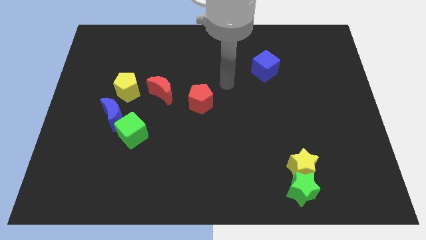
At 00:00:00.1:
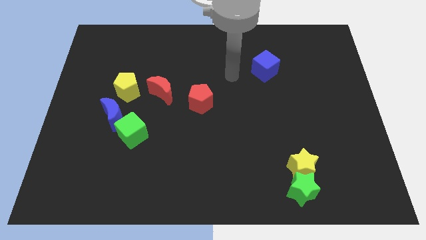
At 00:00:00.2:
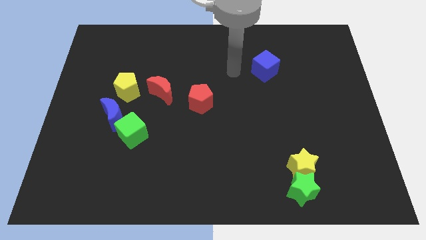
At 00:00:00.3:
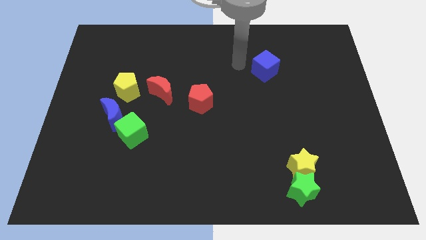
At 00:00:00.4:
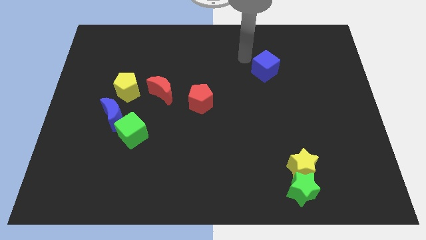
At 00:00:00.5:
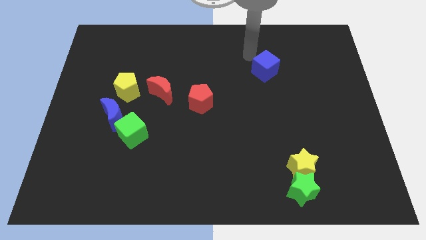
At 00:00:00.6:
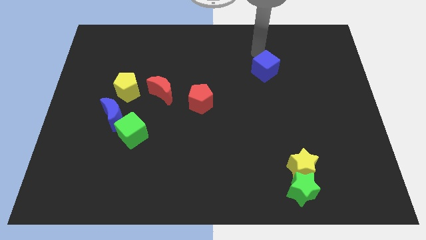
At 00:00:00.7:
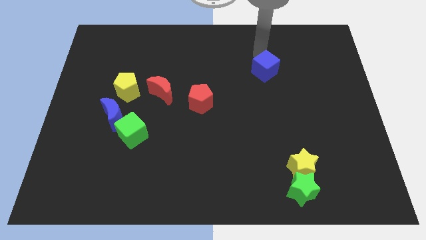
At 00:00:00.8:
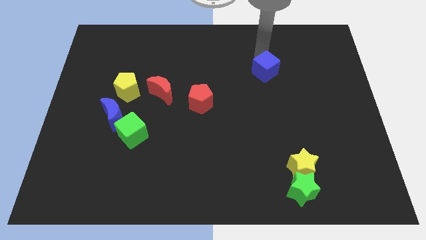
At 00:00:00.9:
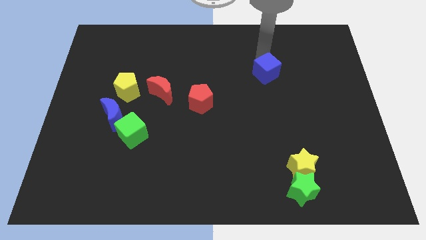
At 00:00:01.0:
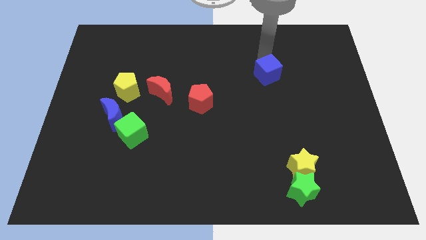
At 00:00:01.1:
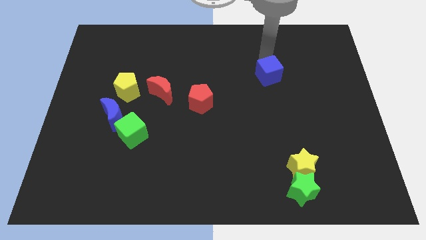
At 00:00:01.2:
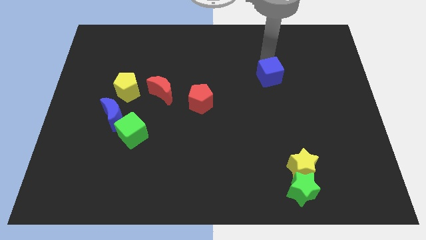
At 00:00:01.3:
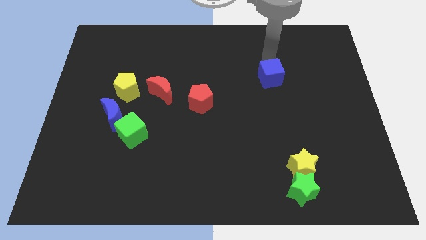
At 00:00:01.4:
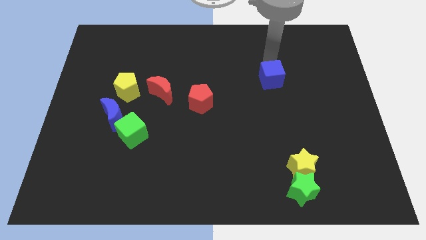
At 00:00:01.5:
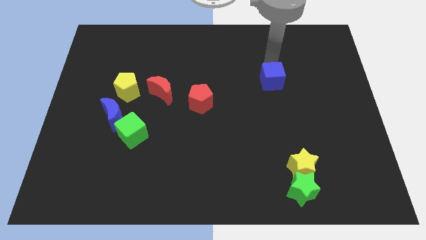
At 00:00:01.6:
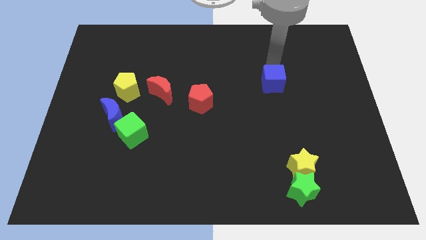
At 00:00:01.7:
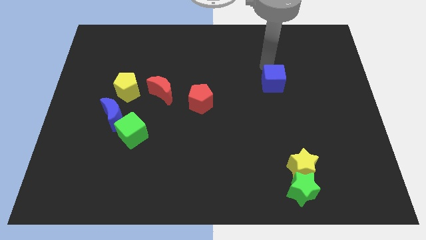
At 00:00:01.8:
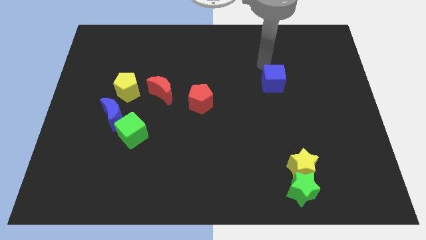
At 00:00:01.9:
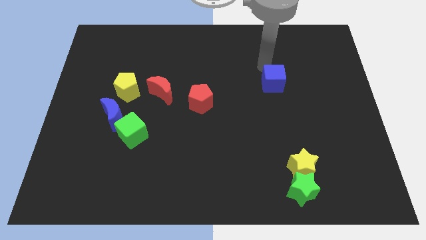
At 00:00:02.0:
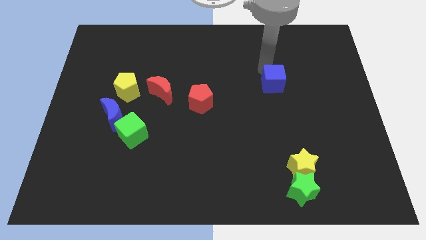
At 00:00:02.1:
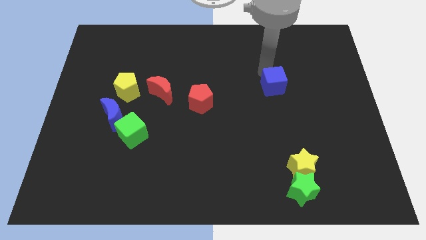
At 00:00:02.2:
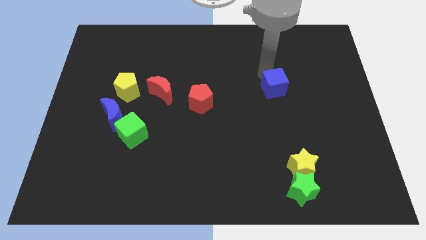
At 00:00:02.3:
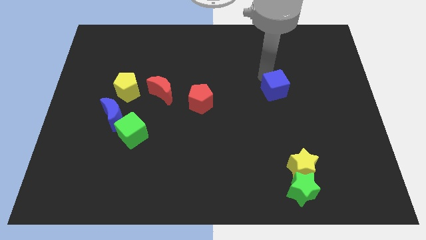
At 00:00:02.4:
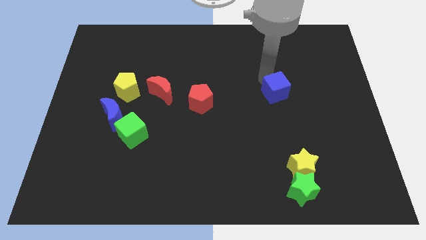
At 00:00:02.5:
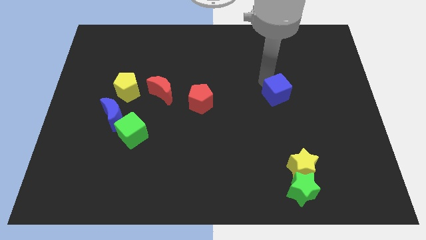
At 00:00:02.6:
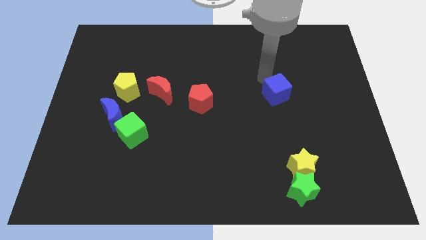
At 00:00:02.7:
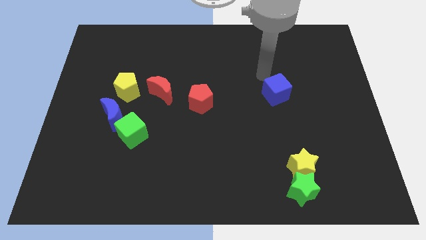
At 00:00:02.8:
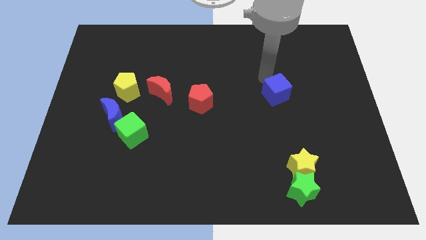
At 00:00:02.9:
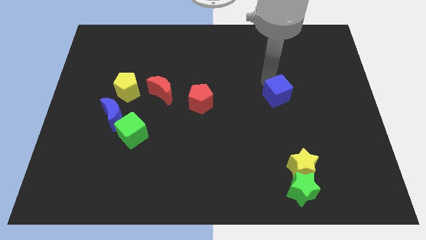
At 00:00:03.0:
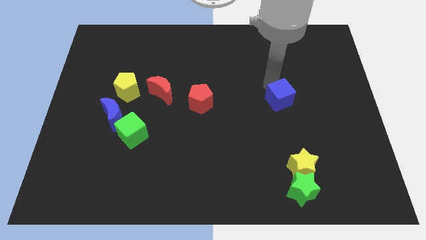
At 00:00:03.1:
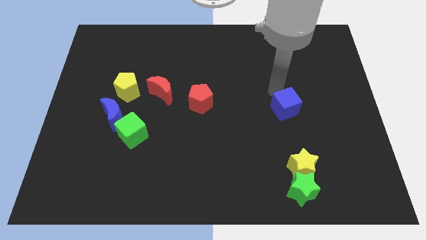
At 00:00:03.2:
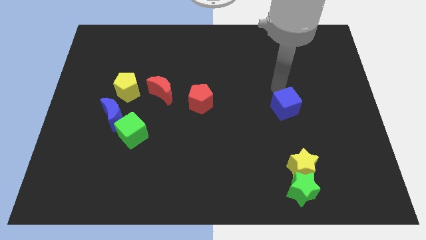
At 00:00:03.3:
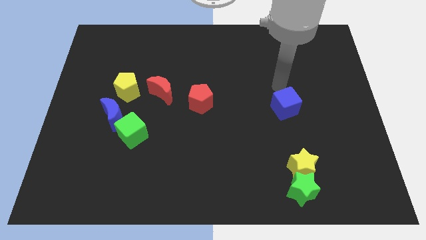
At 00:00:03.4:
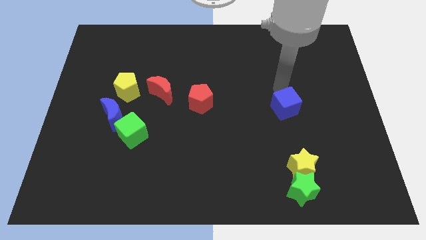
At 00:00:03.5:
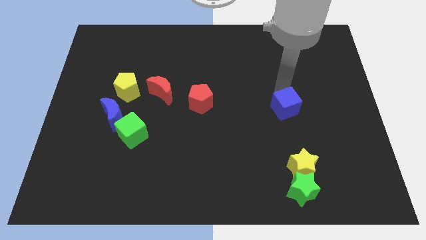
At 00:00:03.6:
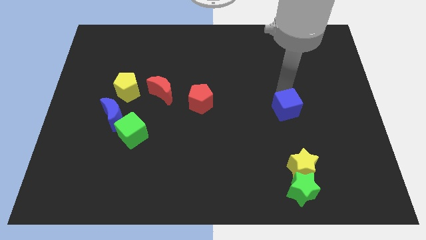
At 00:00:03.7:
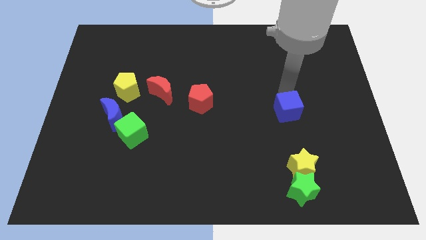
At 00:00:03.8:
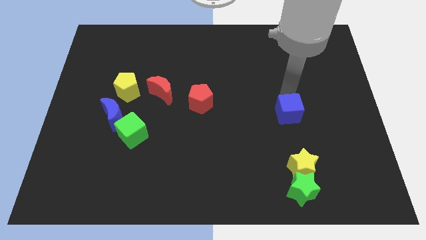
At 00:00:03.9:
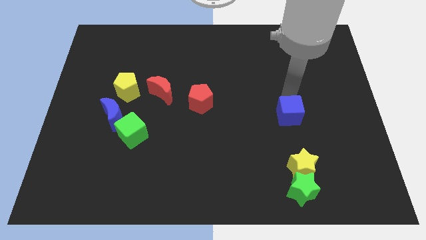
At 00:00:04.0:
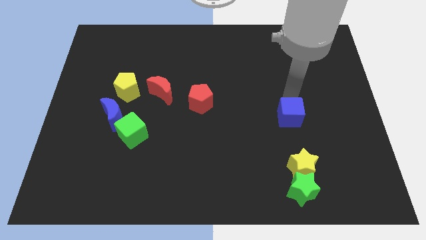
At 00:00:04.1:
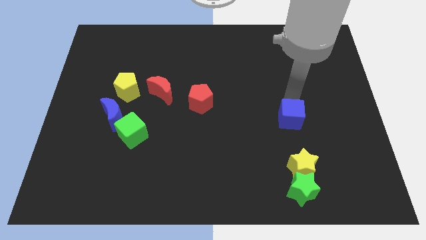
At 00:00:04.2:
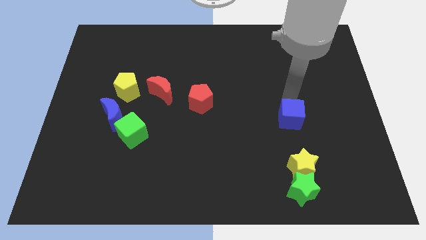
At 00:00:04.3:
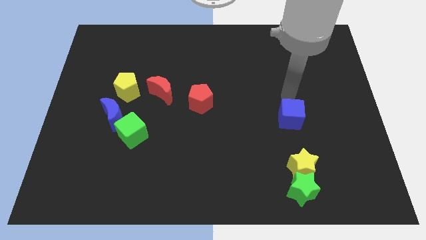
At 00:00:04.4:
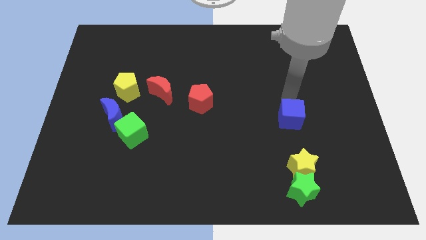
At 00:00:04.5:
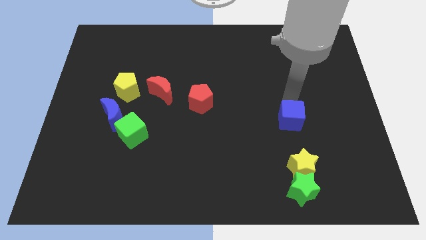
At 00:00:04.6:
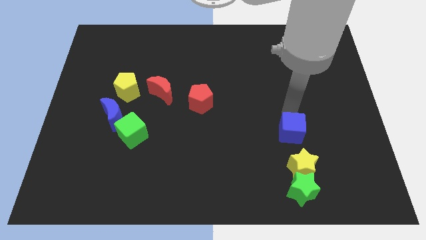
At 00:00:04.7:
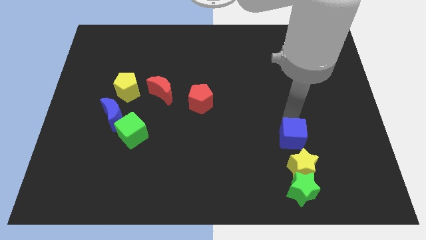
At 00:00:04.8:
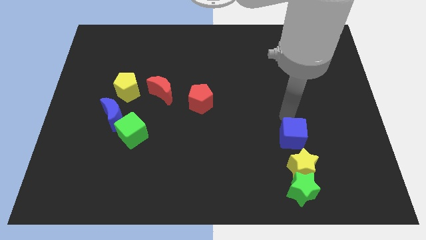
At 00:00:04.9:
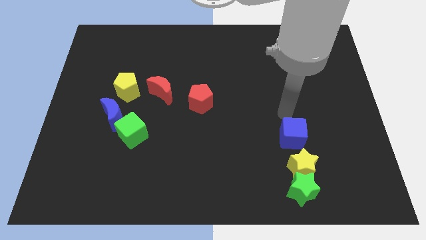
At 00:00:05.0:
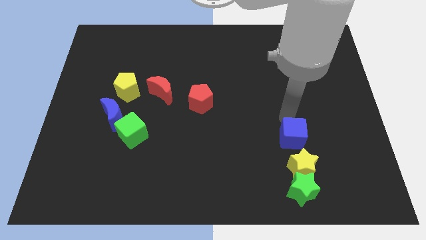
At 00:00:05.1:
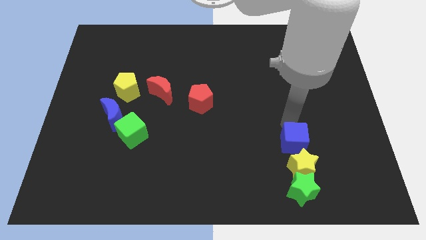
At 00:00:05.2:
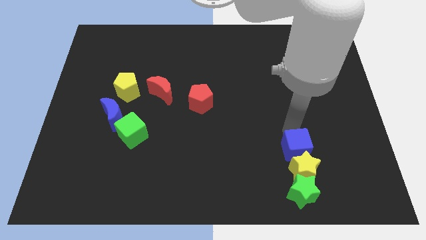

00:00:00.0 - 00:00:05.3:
put the blue cube next to the yellow star

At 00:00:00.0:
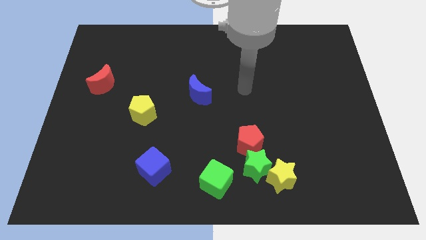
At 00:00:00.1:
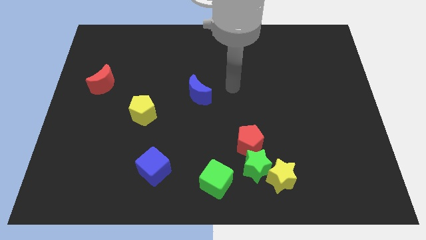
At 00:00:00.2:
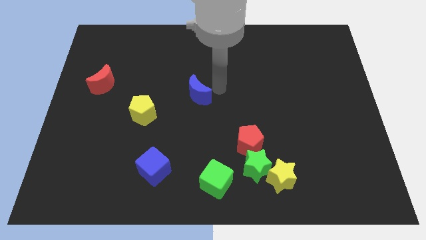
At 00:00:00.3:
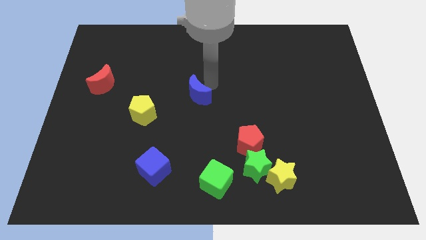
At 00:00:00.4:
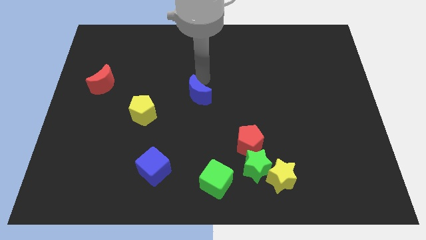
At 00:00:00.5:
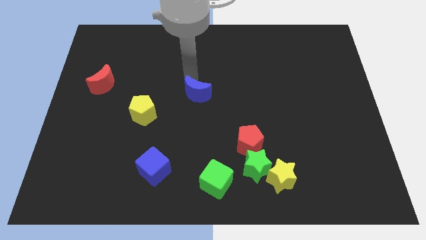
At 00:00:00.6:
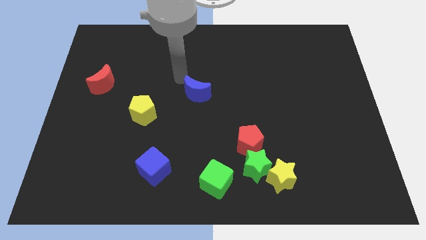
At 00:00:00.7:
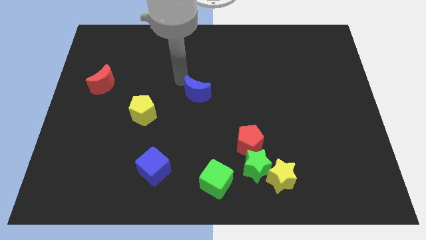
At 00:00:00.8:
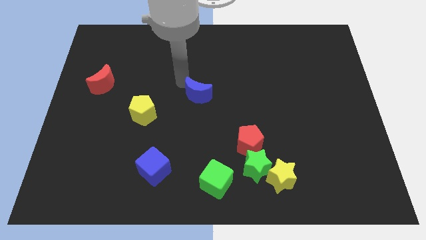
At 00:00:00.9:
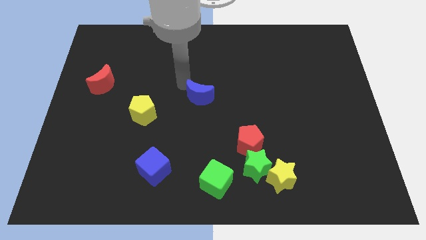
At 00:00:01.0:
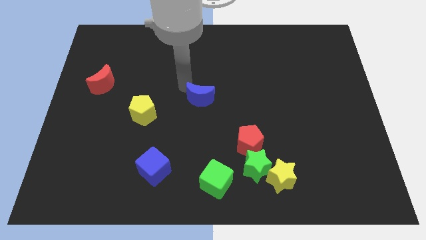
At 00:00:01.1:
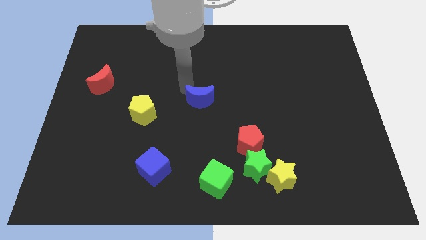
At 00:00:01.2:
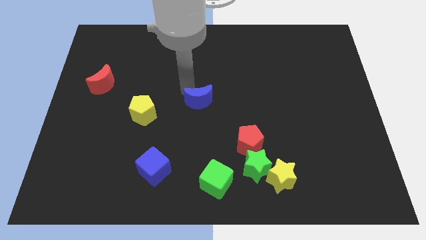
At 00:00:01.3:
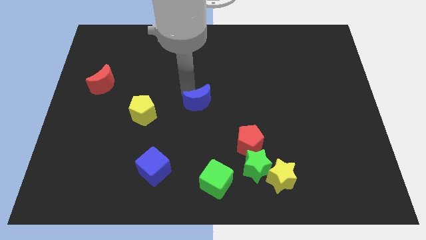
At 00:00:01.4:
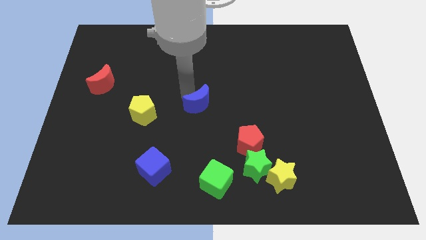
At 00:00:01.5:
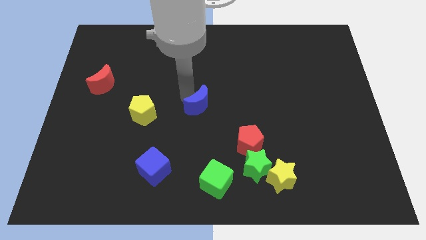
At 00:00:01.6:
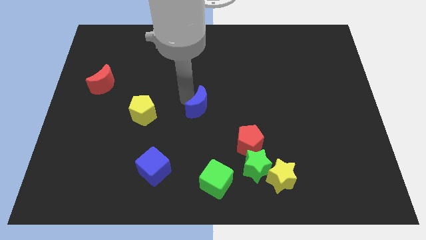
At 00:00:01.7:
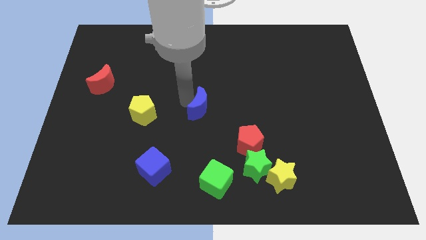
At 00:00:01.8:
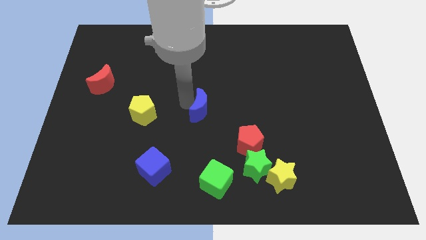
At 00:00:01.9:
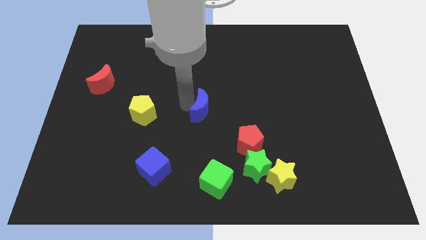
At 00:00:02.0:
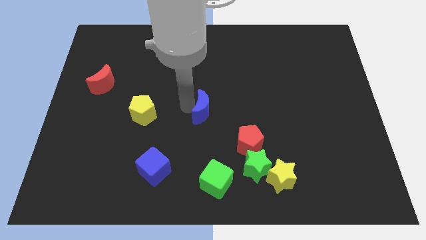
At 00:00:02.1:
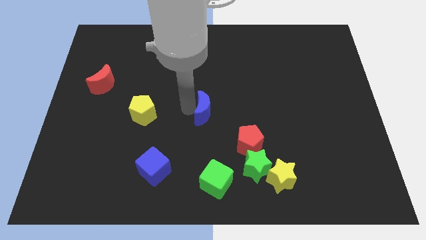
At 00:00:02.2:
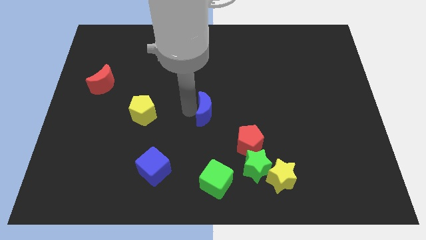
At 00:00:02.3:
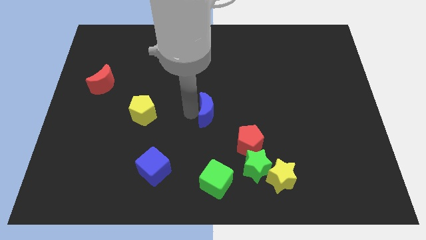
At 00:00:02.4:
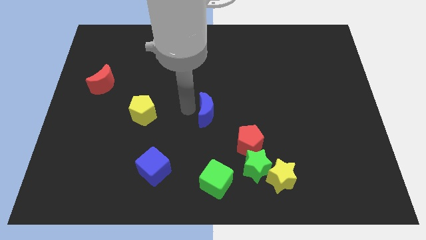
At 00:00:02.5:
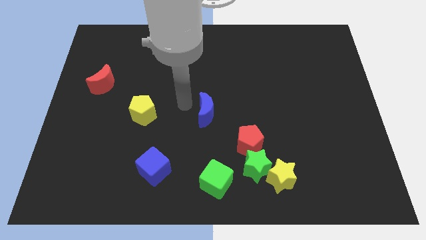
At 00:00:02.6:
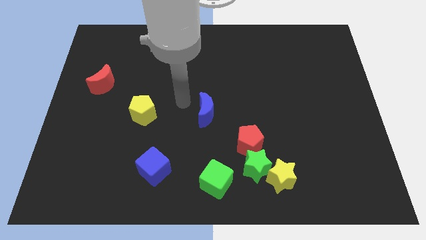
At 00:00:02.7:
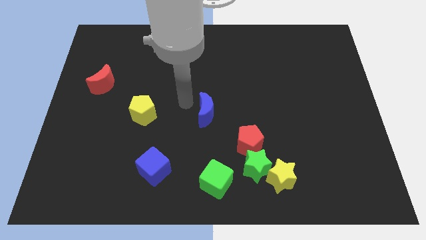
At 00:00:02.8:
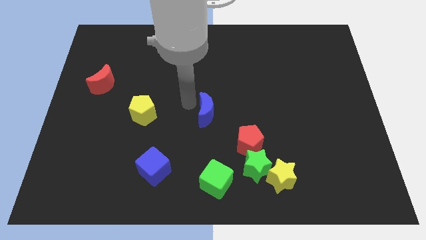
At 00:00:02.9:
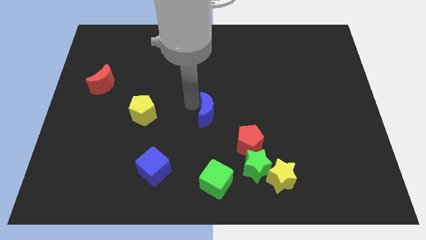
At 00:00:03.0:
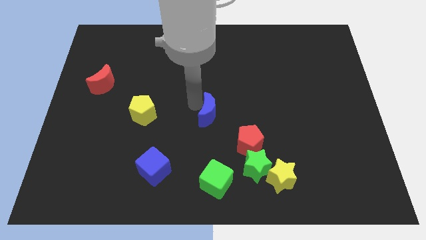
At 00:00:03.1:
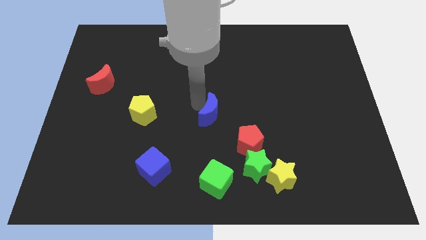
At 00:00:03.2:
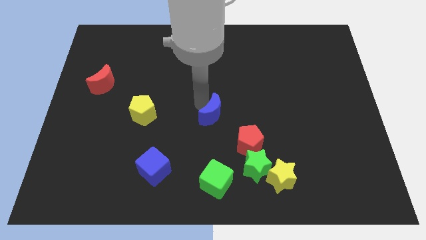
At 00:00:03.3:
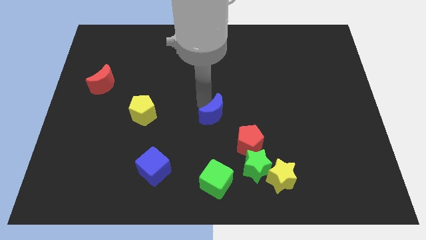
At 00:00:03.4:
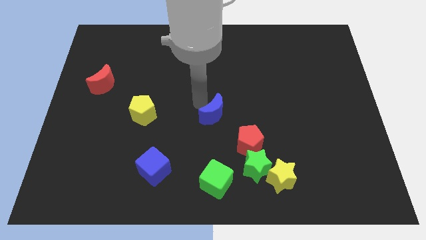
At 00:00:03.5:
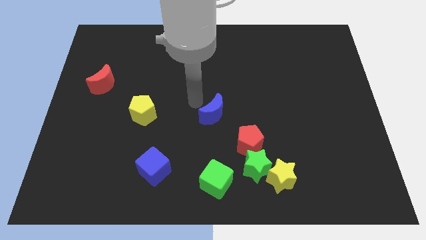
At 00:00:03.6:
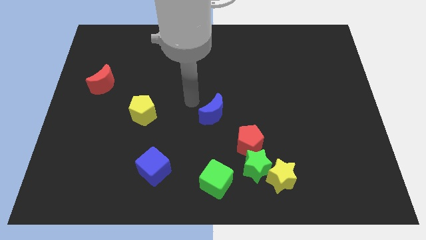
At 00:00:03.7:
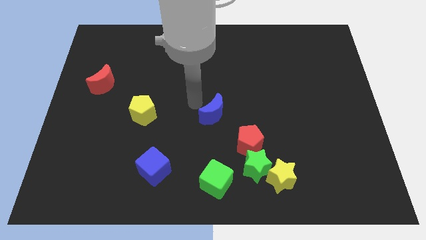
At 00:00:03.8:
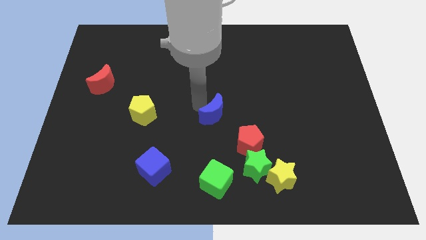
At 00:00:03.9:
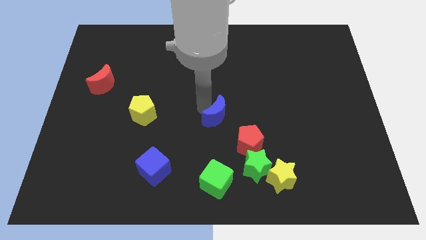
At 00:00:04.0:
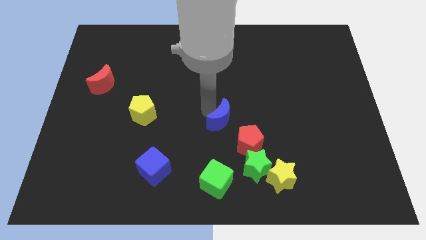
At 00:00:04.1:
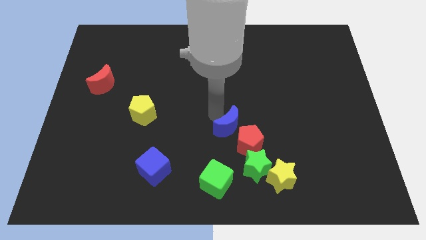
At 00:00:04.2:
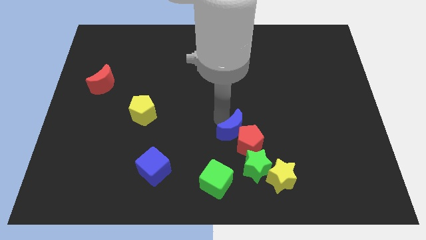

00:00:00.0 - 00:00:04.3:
put the blue moon close to the red pentagon
